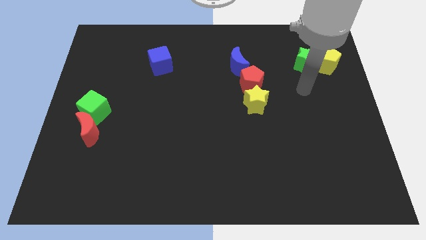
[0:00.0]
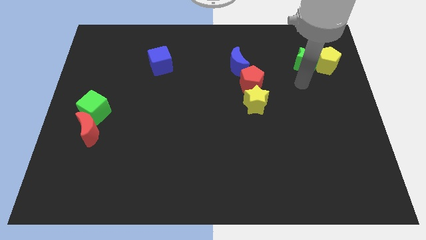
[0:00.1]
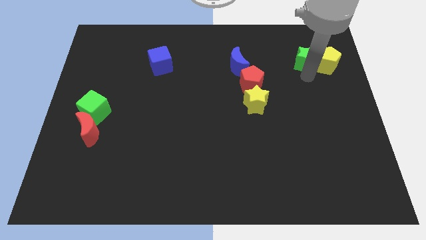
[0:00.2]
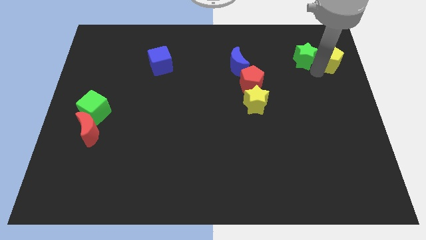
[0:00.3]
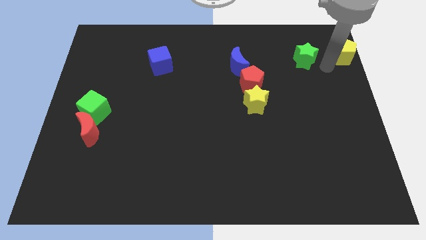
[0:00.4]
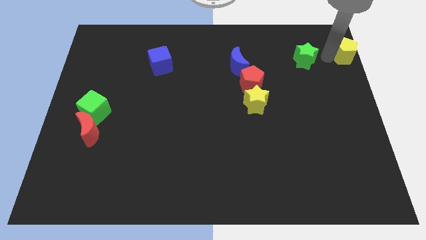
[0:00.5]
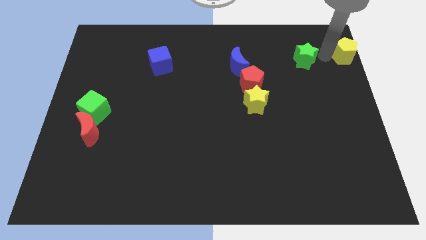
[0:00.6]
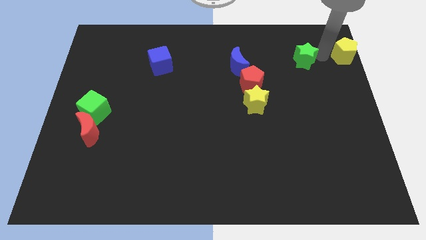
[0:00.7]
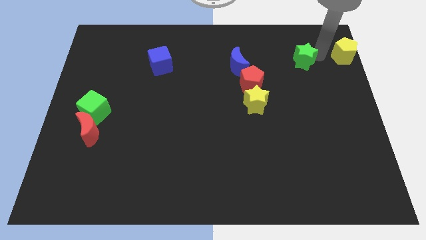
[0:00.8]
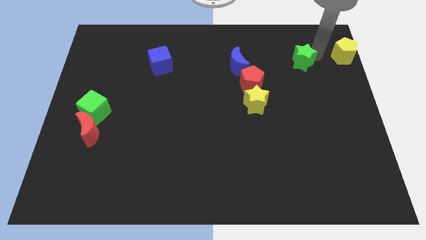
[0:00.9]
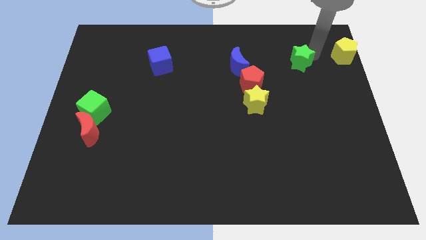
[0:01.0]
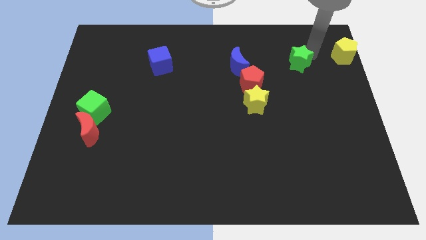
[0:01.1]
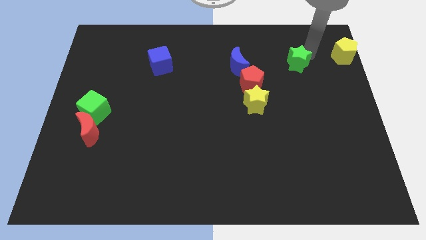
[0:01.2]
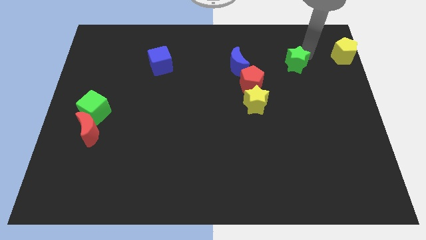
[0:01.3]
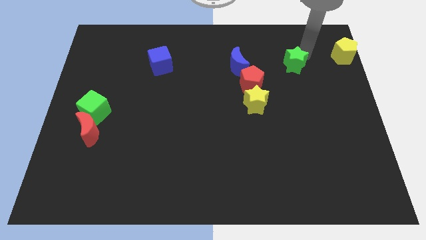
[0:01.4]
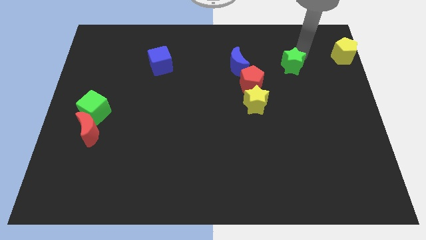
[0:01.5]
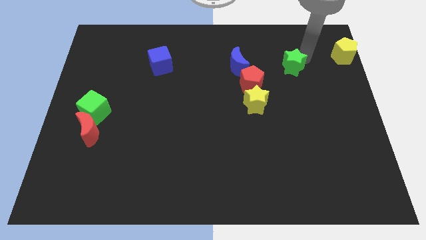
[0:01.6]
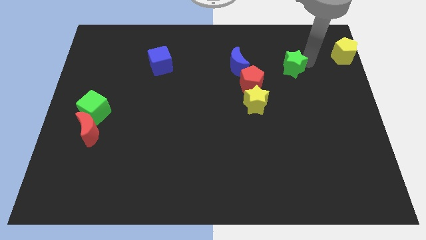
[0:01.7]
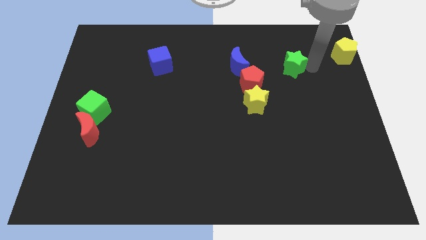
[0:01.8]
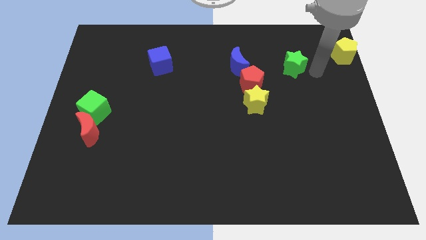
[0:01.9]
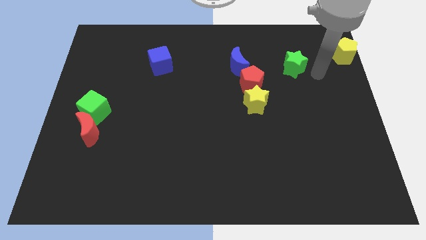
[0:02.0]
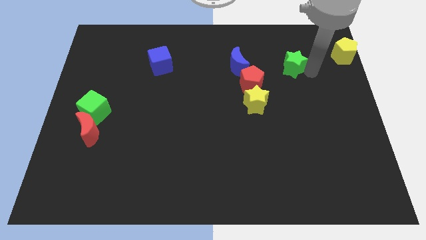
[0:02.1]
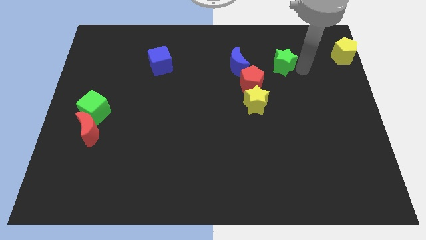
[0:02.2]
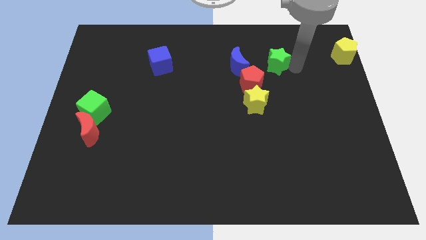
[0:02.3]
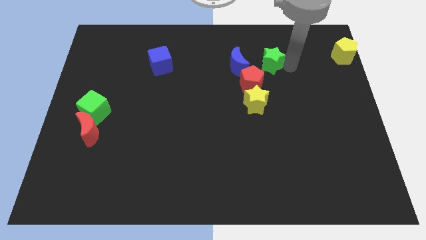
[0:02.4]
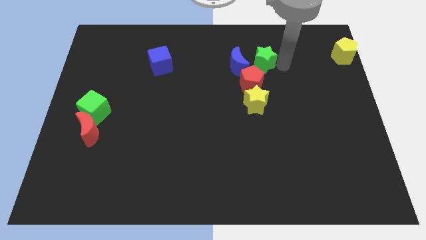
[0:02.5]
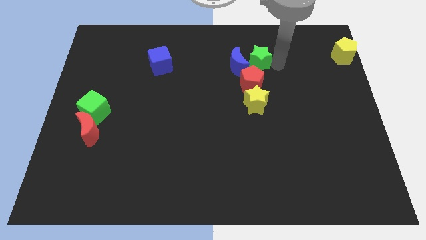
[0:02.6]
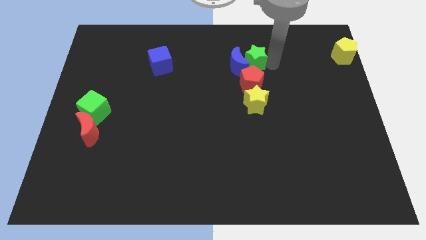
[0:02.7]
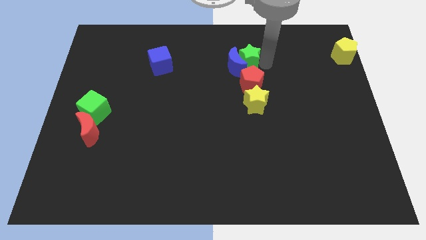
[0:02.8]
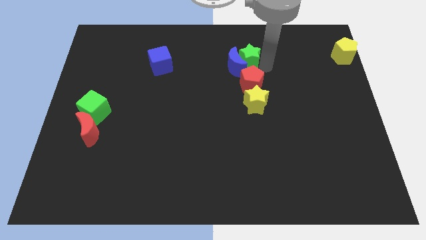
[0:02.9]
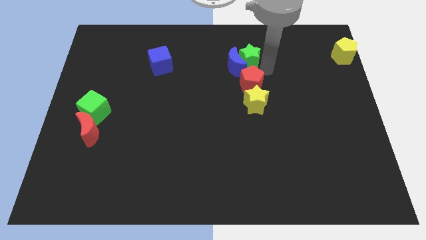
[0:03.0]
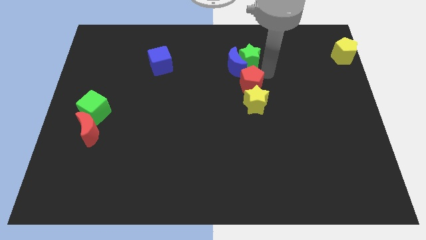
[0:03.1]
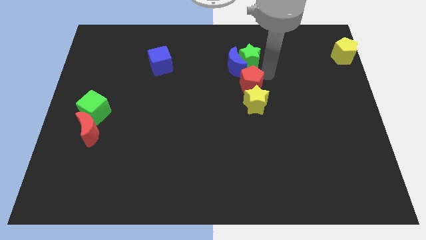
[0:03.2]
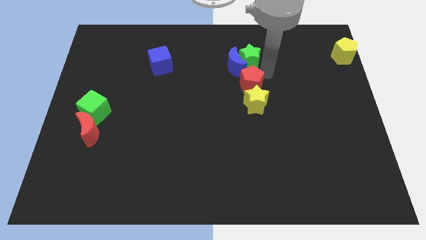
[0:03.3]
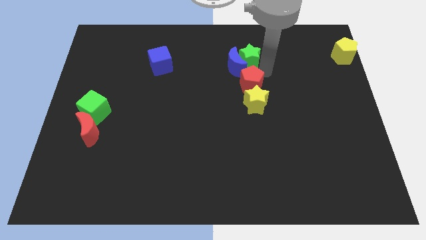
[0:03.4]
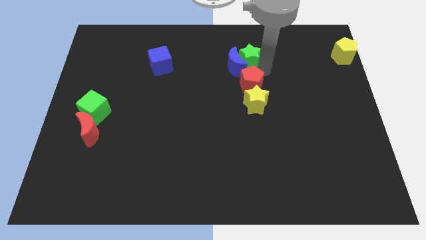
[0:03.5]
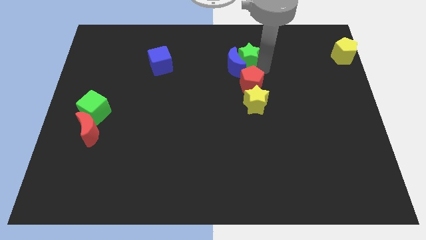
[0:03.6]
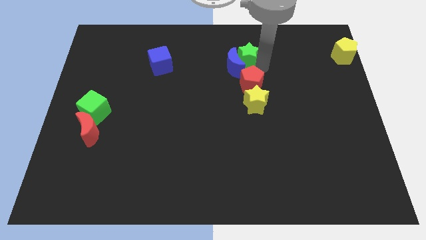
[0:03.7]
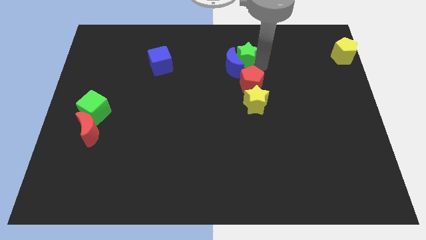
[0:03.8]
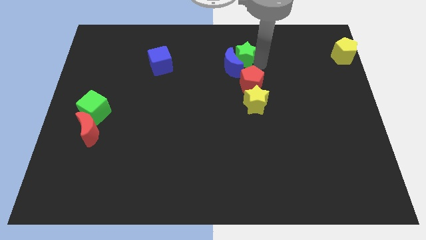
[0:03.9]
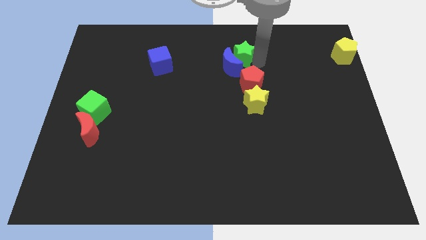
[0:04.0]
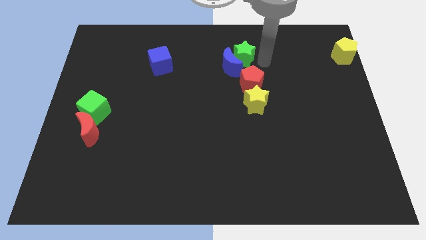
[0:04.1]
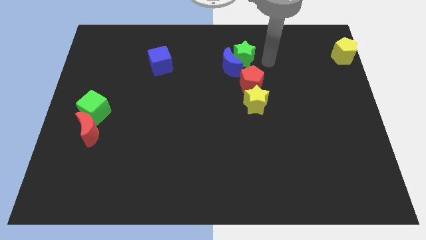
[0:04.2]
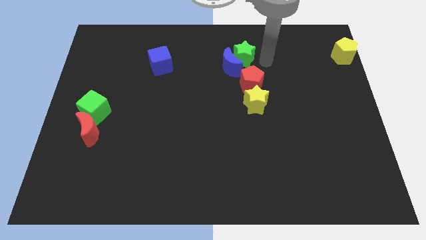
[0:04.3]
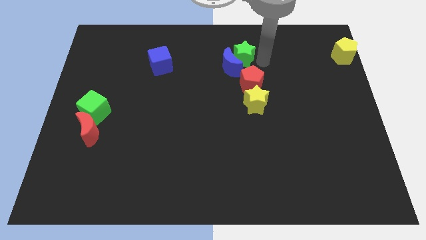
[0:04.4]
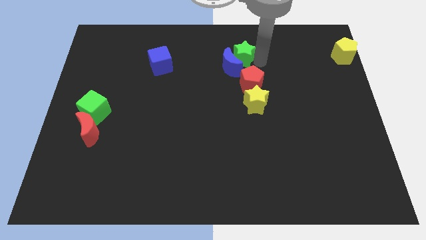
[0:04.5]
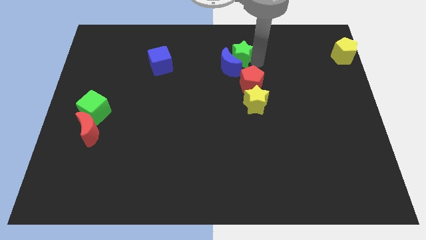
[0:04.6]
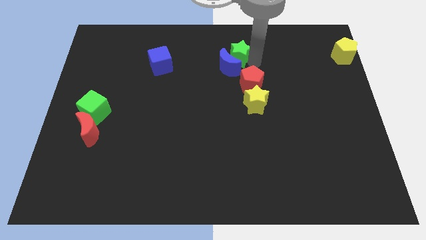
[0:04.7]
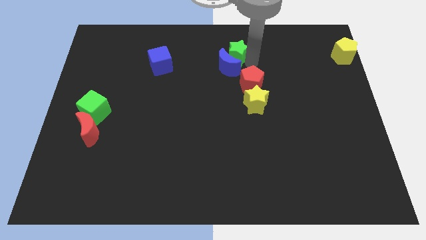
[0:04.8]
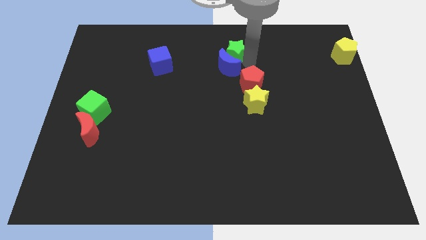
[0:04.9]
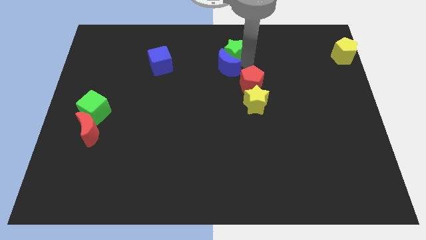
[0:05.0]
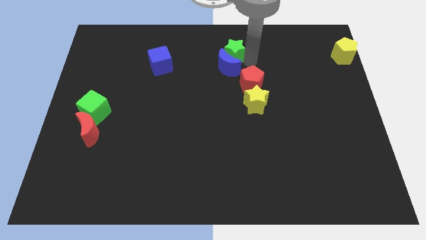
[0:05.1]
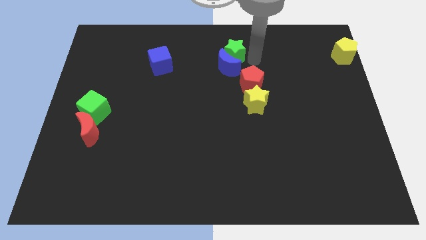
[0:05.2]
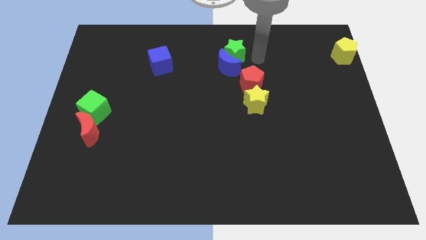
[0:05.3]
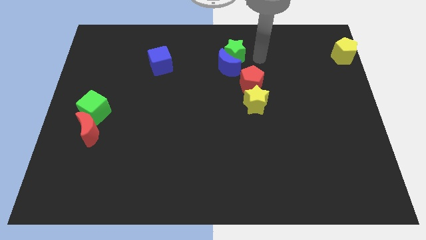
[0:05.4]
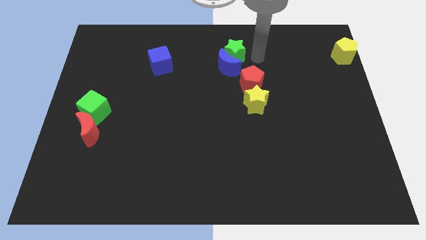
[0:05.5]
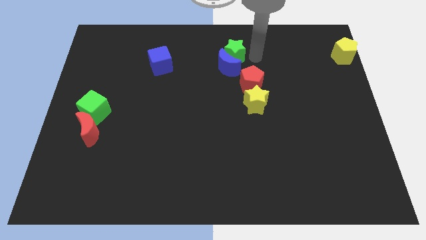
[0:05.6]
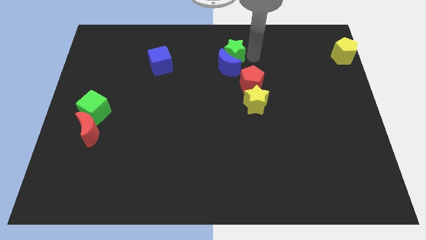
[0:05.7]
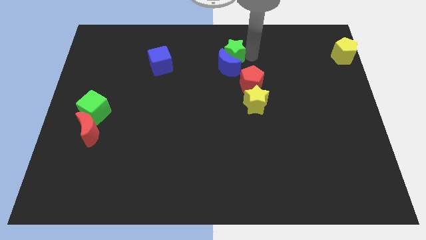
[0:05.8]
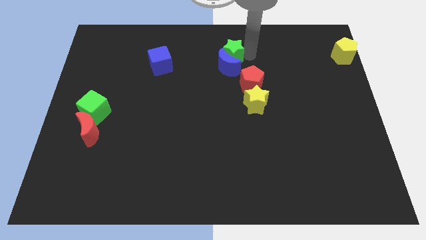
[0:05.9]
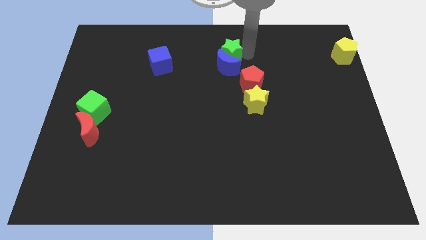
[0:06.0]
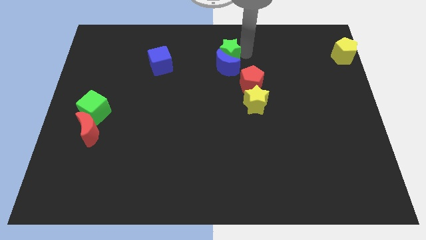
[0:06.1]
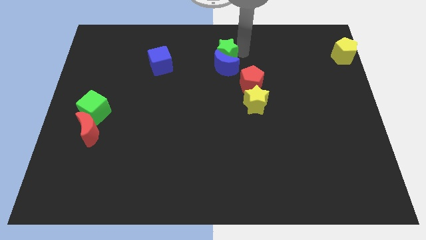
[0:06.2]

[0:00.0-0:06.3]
slide the green star left

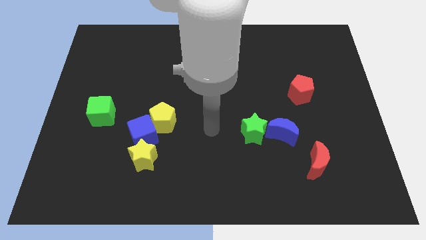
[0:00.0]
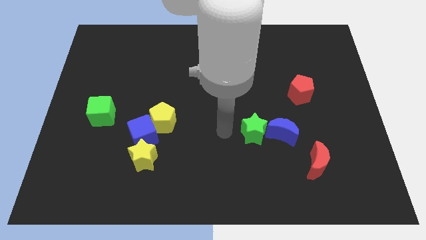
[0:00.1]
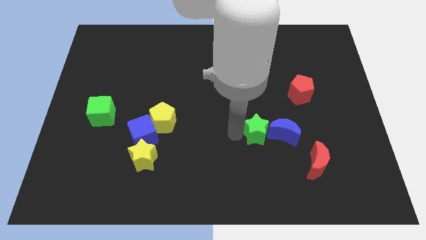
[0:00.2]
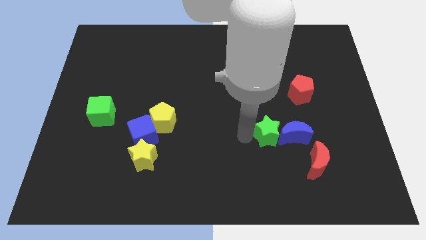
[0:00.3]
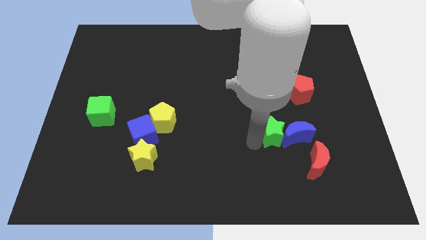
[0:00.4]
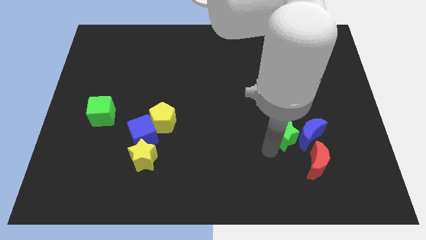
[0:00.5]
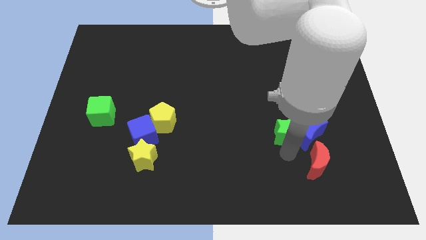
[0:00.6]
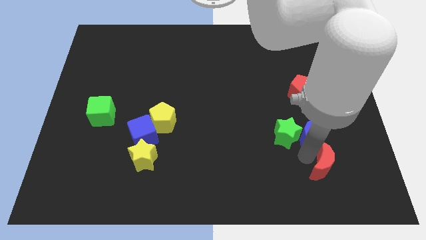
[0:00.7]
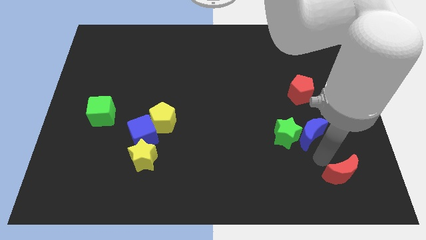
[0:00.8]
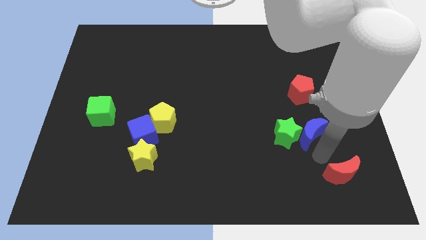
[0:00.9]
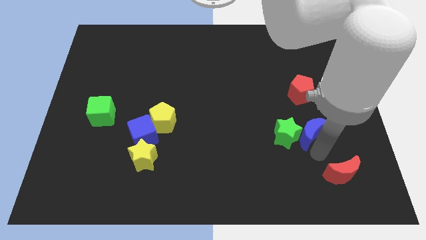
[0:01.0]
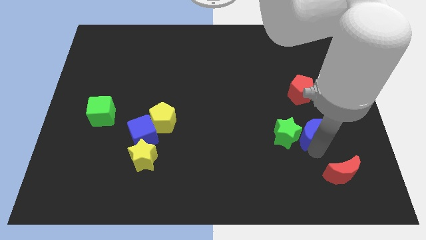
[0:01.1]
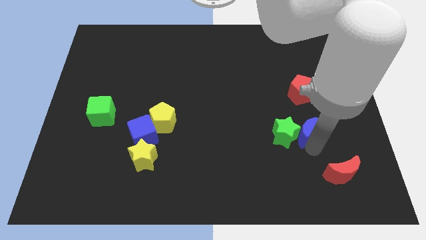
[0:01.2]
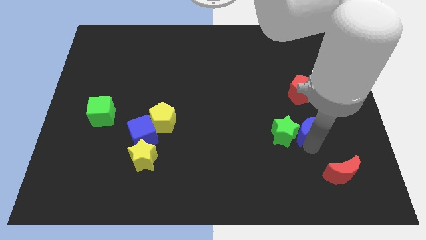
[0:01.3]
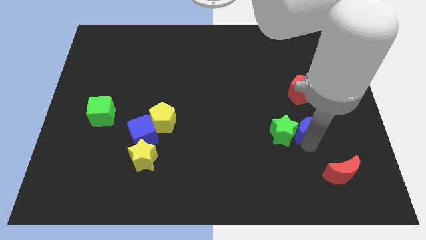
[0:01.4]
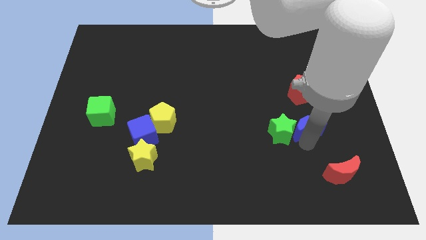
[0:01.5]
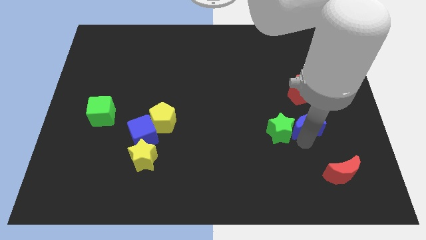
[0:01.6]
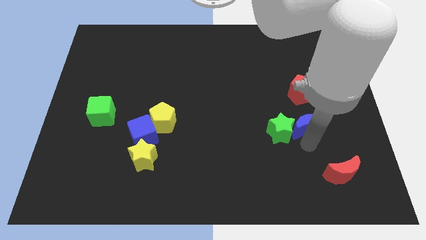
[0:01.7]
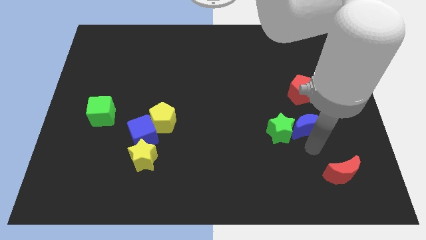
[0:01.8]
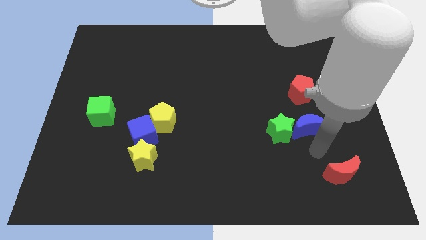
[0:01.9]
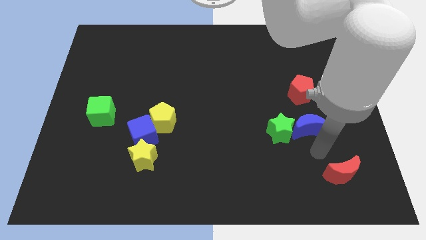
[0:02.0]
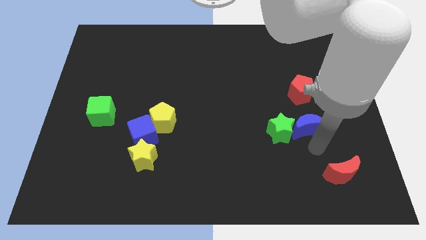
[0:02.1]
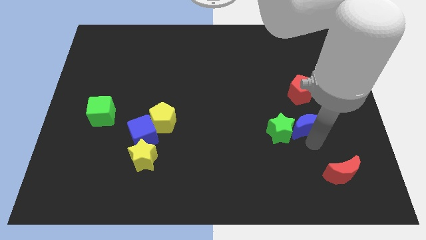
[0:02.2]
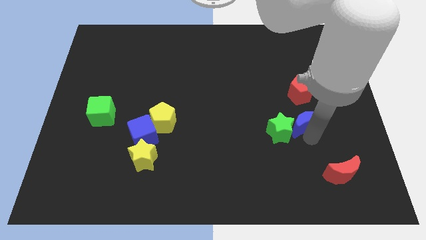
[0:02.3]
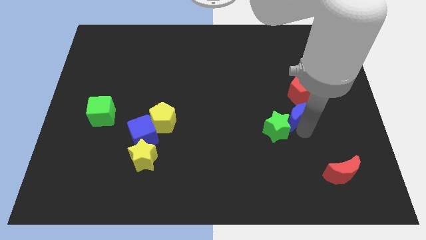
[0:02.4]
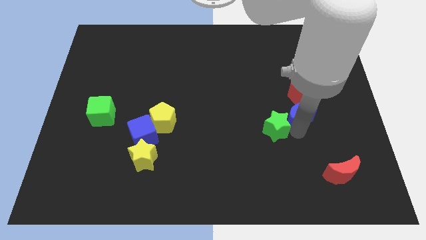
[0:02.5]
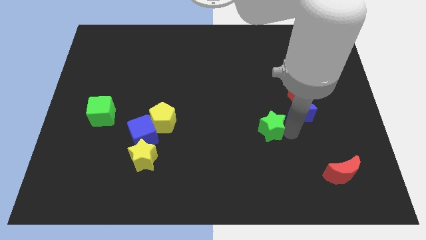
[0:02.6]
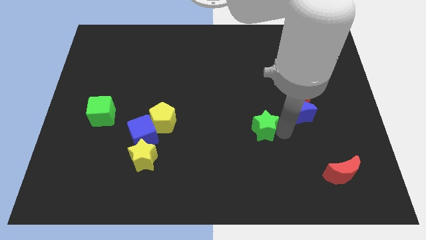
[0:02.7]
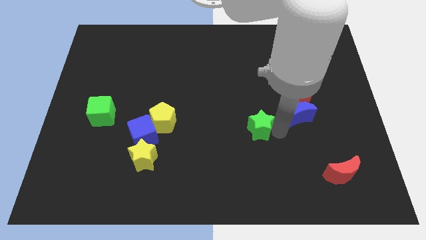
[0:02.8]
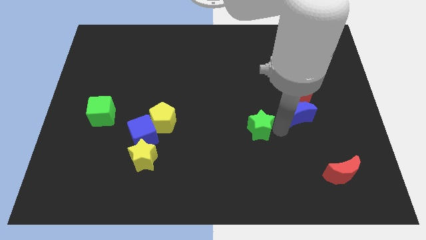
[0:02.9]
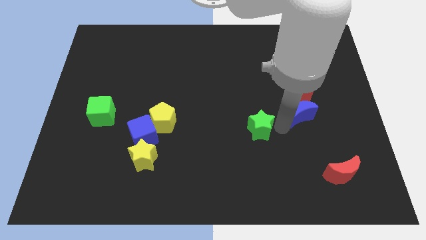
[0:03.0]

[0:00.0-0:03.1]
move the blue moon up and to the right a little bit
